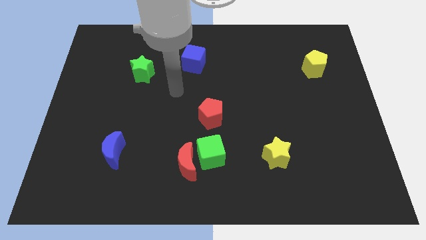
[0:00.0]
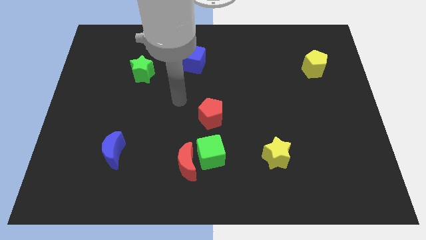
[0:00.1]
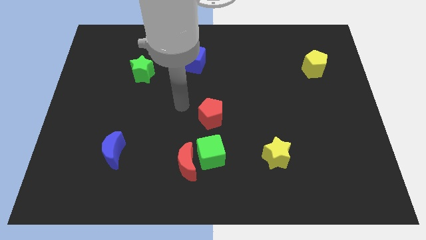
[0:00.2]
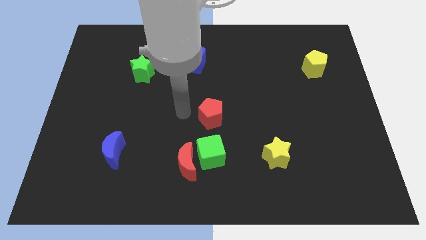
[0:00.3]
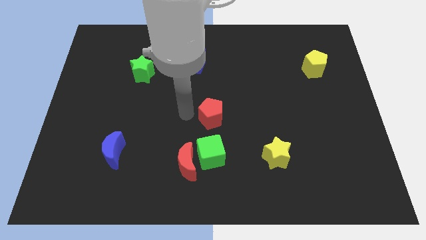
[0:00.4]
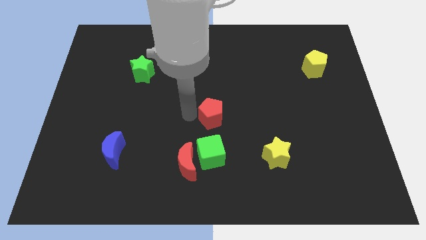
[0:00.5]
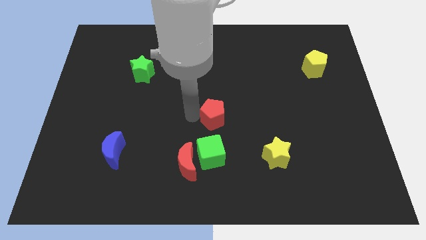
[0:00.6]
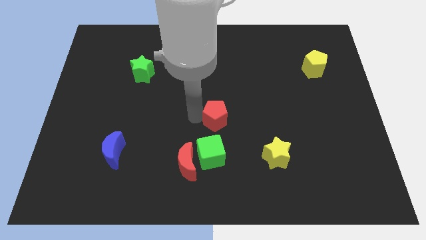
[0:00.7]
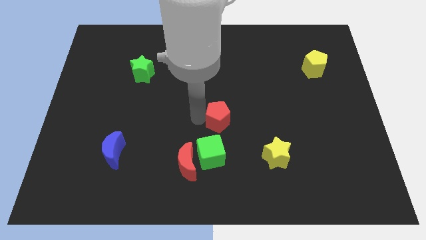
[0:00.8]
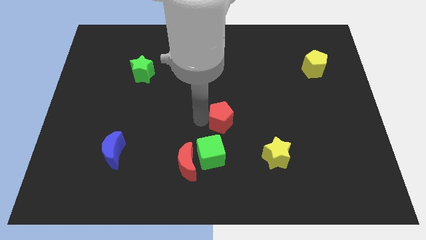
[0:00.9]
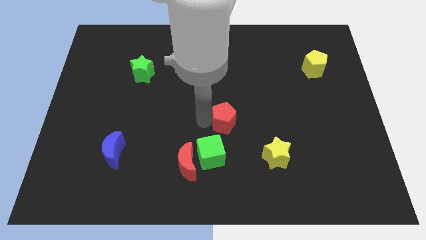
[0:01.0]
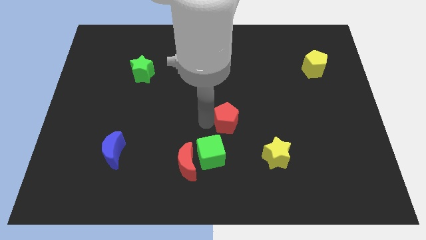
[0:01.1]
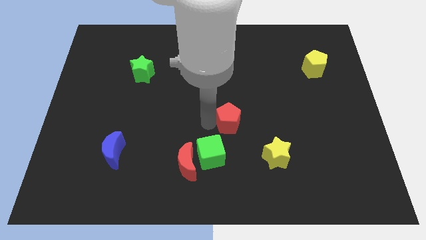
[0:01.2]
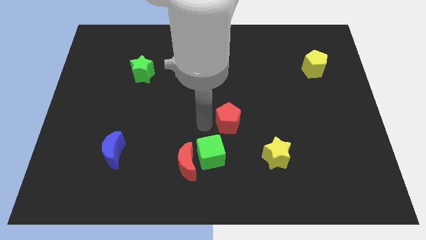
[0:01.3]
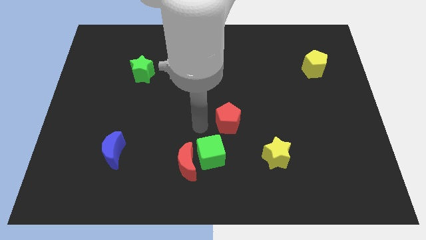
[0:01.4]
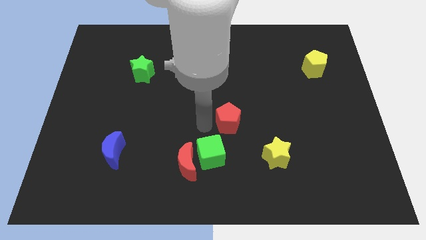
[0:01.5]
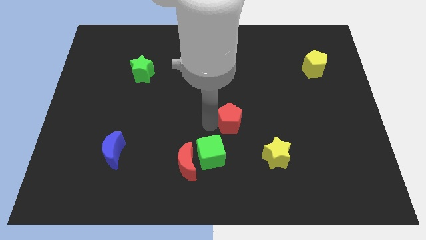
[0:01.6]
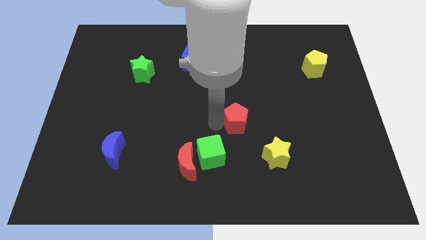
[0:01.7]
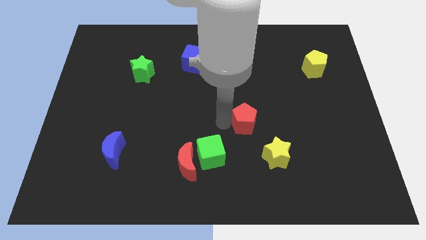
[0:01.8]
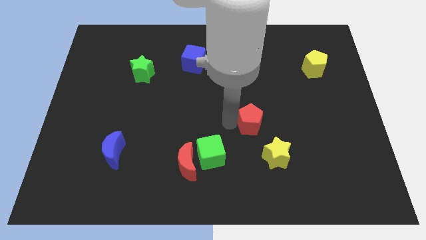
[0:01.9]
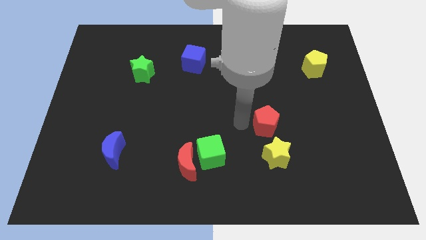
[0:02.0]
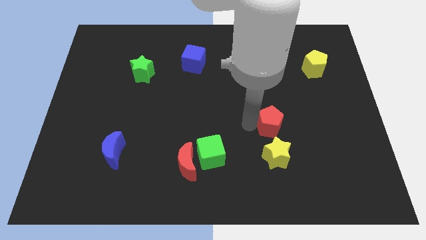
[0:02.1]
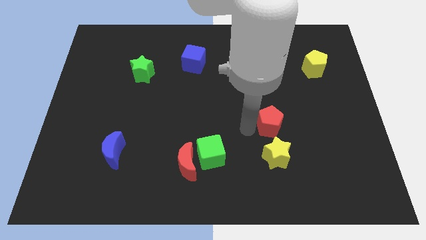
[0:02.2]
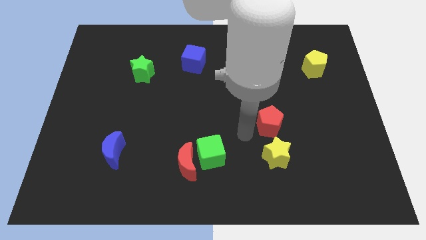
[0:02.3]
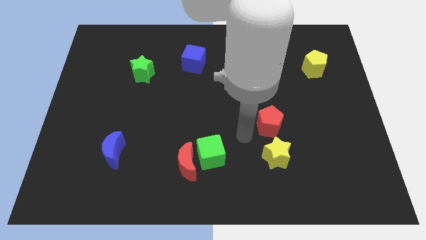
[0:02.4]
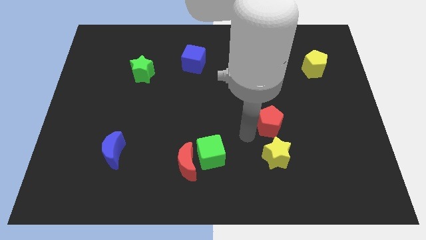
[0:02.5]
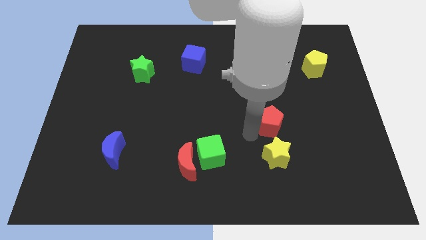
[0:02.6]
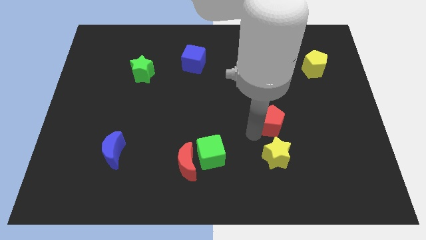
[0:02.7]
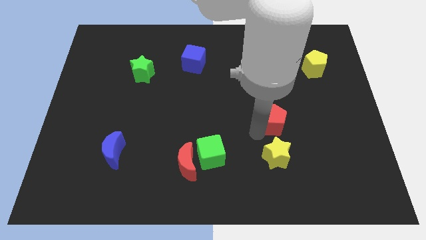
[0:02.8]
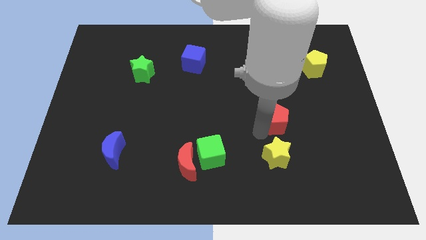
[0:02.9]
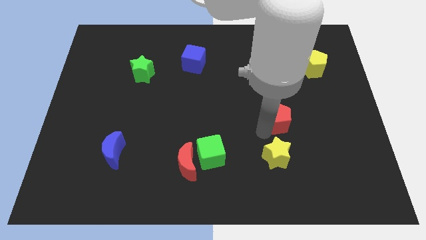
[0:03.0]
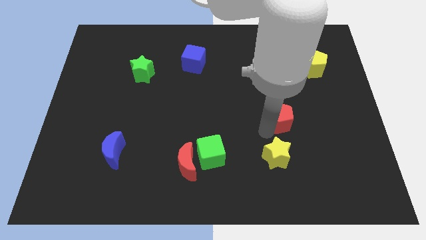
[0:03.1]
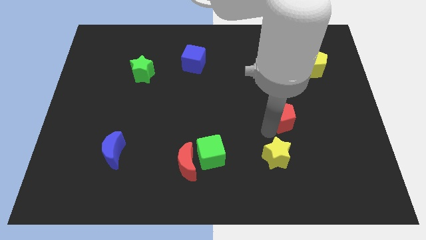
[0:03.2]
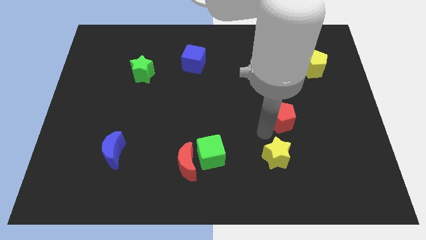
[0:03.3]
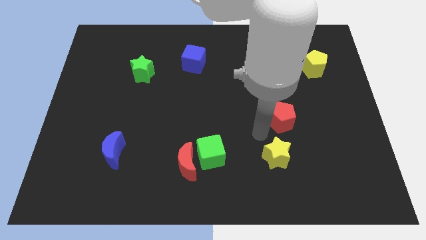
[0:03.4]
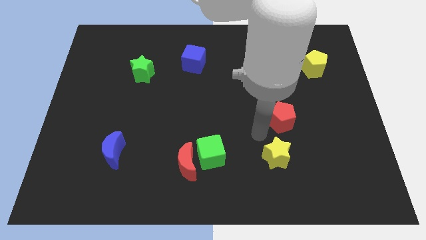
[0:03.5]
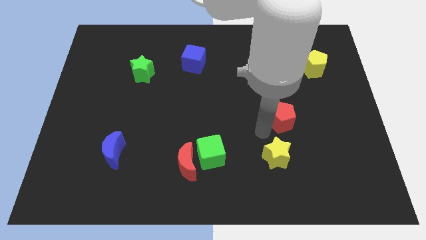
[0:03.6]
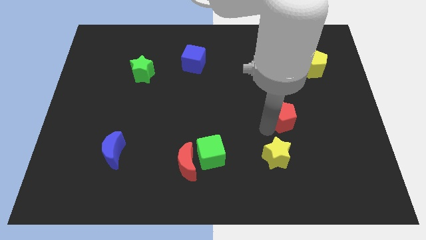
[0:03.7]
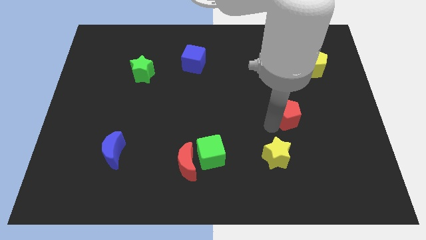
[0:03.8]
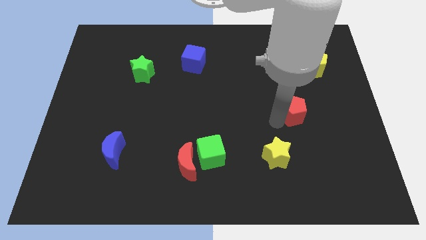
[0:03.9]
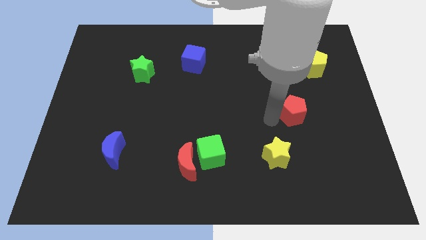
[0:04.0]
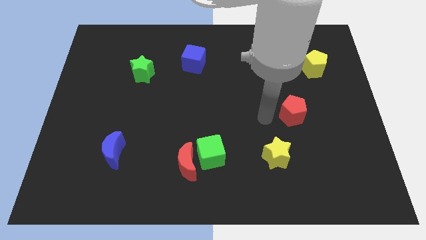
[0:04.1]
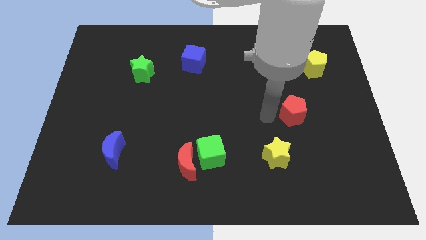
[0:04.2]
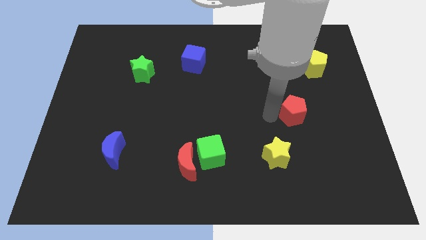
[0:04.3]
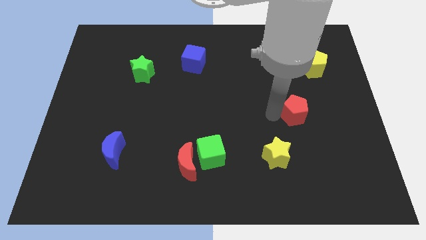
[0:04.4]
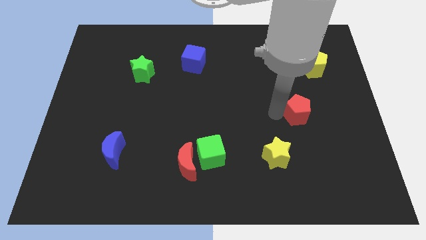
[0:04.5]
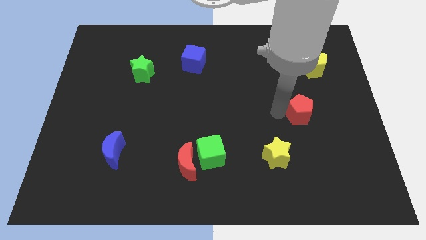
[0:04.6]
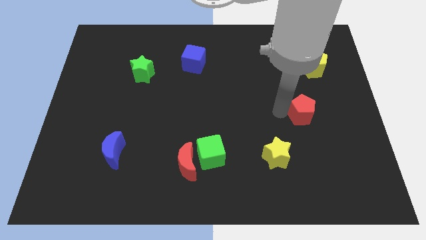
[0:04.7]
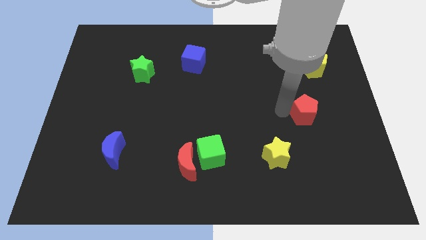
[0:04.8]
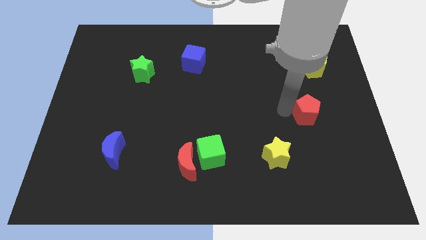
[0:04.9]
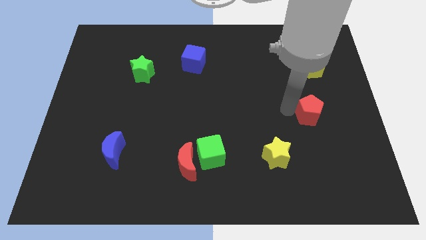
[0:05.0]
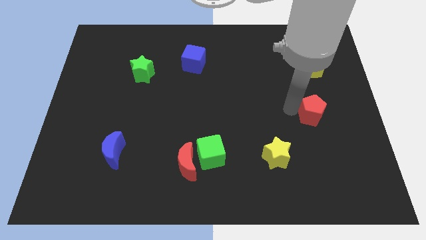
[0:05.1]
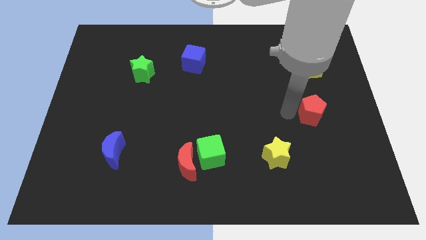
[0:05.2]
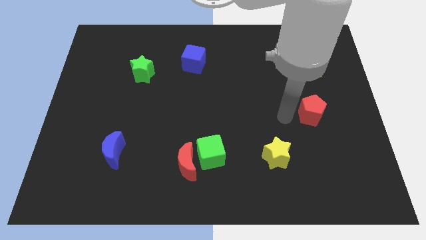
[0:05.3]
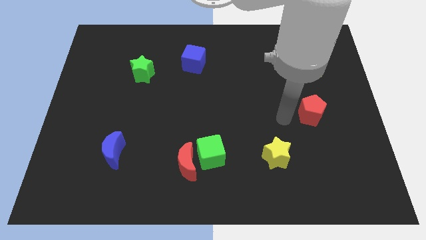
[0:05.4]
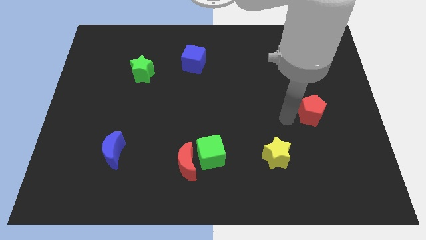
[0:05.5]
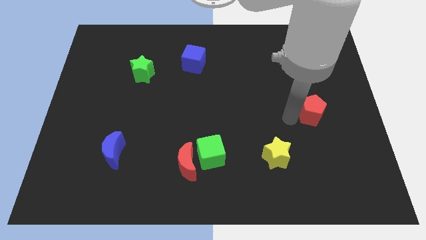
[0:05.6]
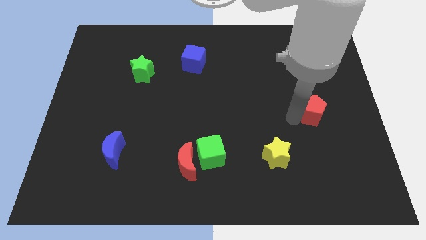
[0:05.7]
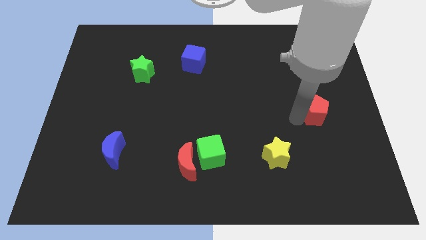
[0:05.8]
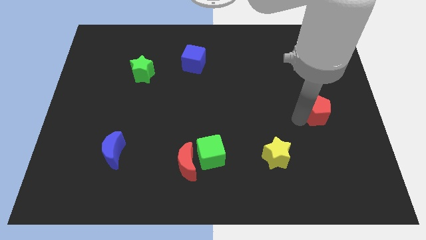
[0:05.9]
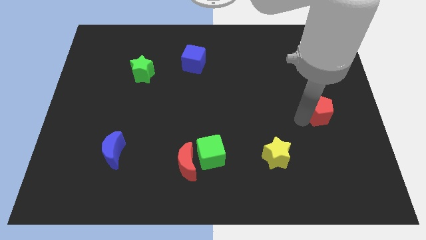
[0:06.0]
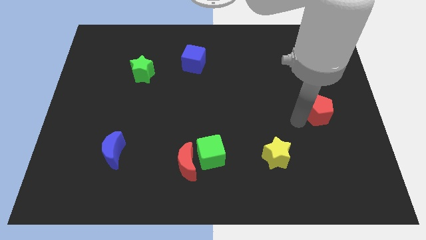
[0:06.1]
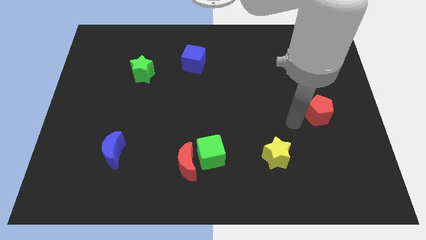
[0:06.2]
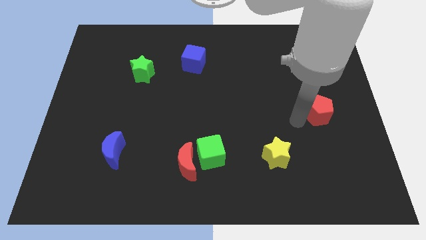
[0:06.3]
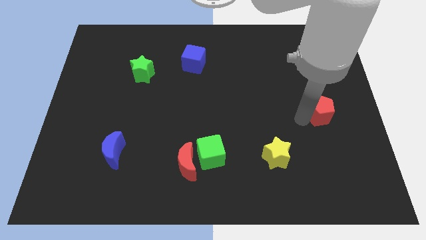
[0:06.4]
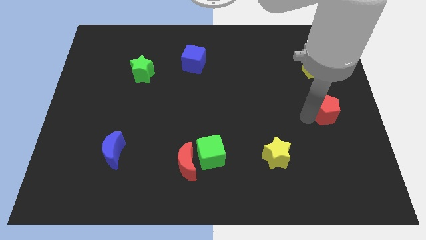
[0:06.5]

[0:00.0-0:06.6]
push the red pentagon to the right side
